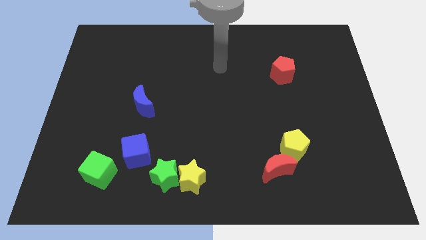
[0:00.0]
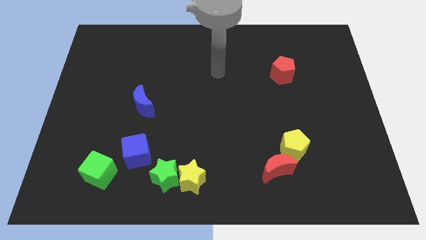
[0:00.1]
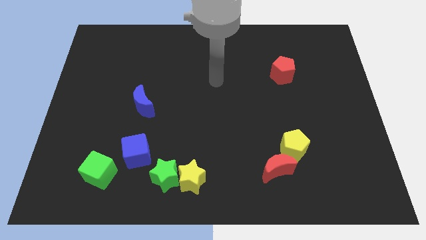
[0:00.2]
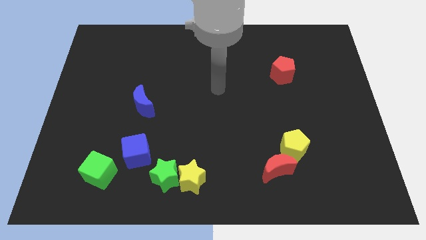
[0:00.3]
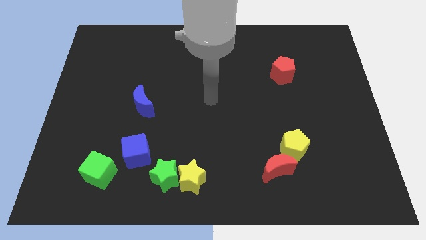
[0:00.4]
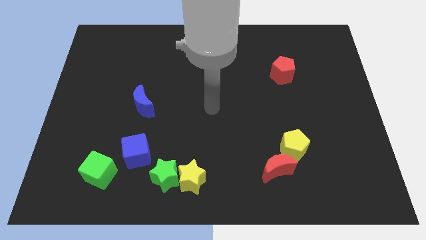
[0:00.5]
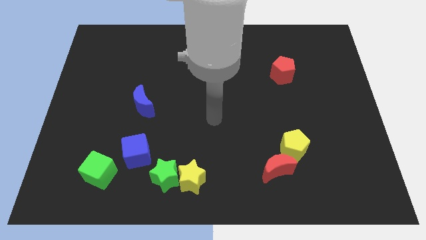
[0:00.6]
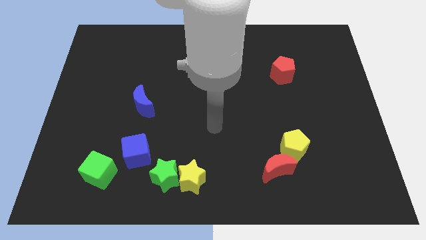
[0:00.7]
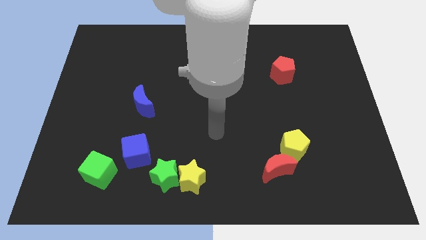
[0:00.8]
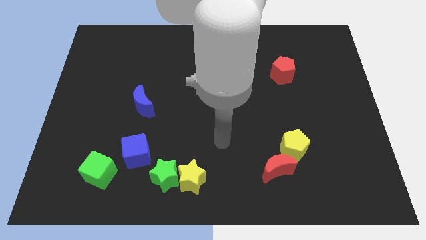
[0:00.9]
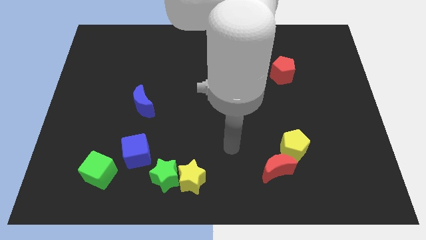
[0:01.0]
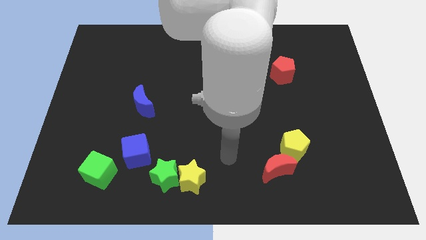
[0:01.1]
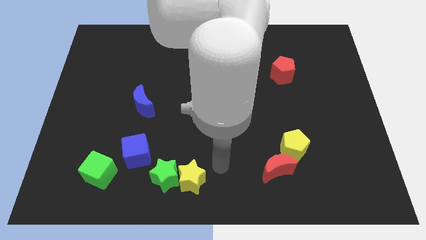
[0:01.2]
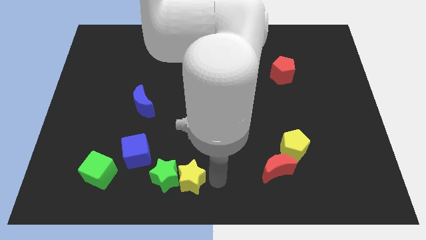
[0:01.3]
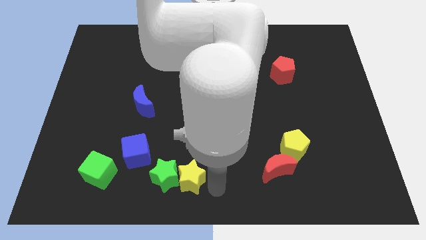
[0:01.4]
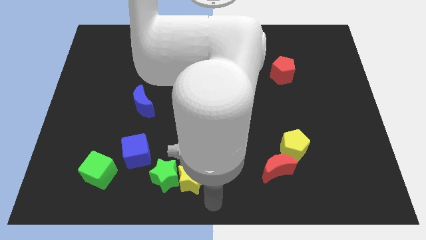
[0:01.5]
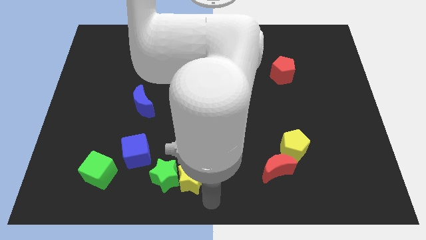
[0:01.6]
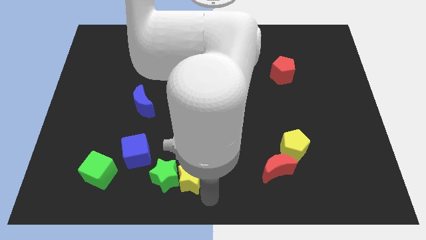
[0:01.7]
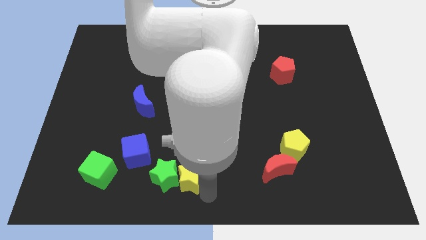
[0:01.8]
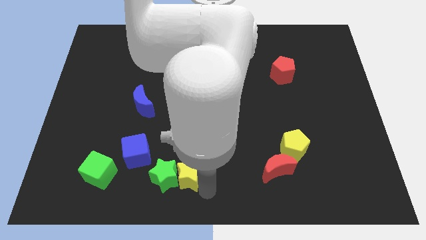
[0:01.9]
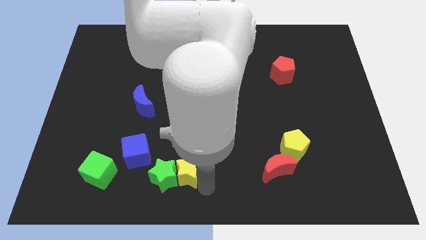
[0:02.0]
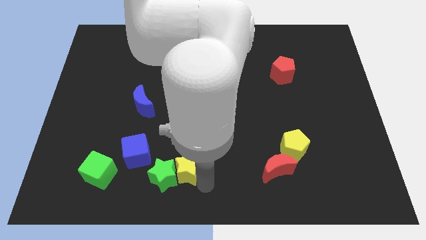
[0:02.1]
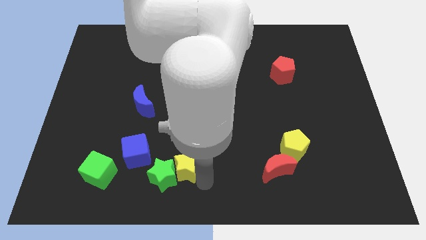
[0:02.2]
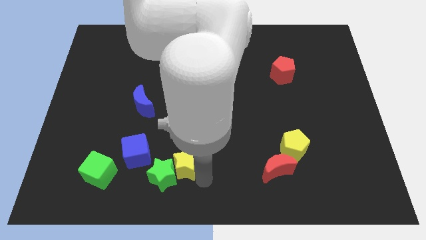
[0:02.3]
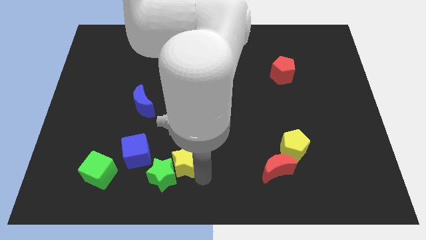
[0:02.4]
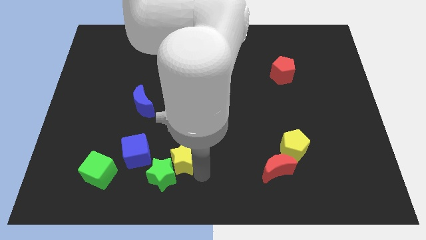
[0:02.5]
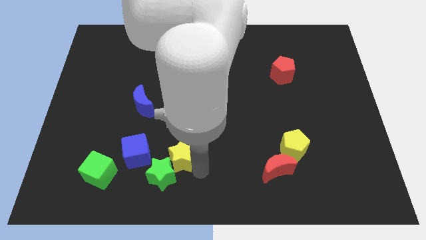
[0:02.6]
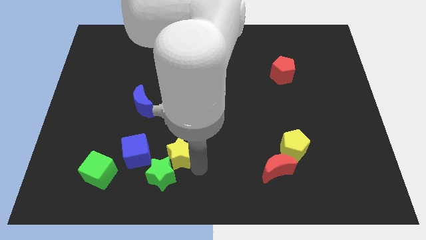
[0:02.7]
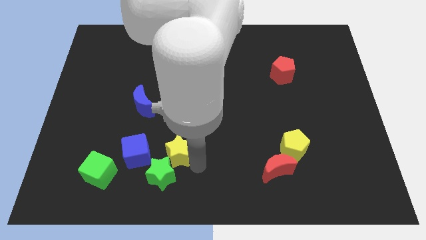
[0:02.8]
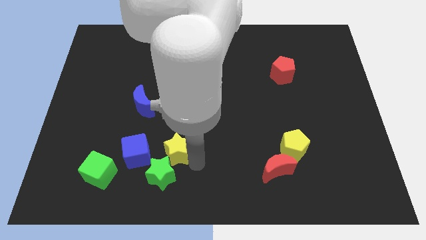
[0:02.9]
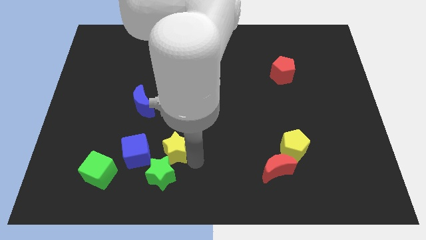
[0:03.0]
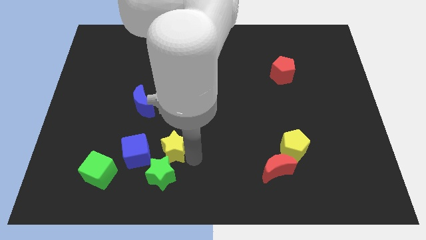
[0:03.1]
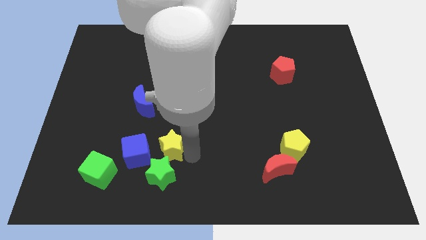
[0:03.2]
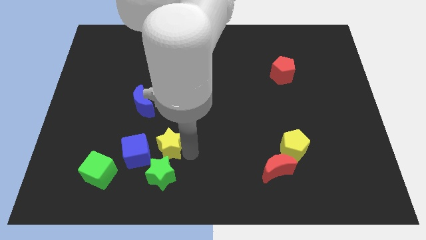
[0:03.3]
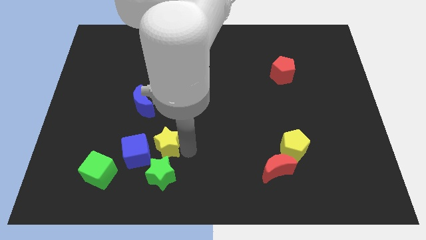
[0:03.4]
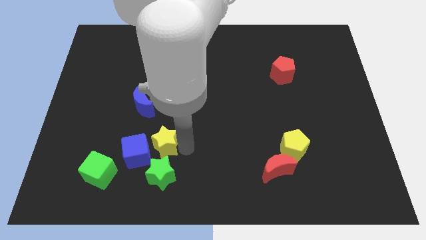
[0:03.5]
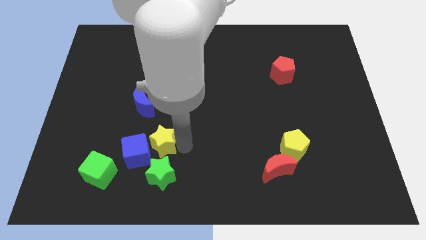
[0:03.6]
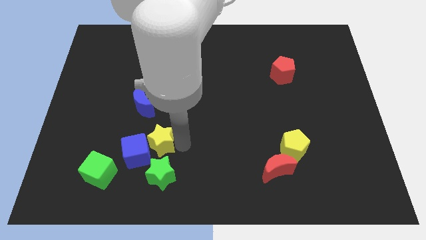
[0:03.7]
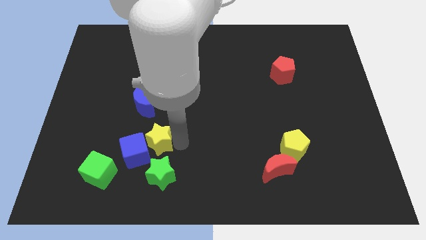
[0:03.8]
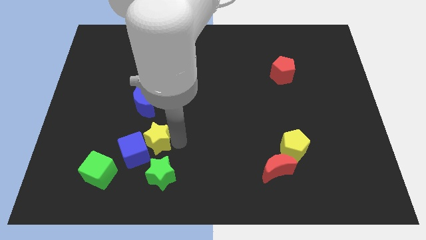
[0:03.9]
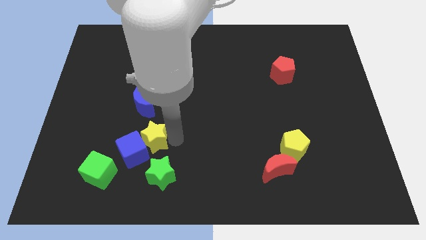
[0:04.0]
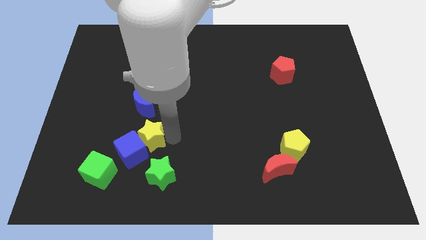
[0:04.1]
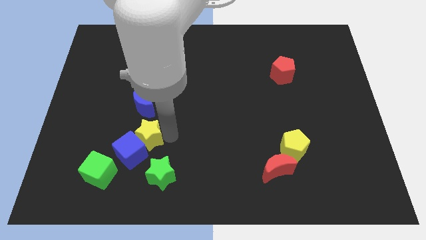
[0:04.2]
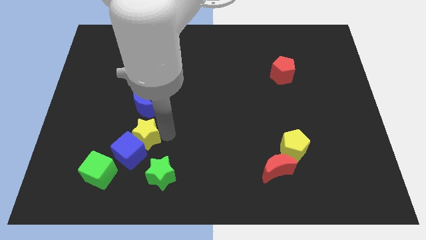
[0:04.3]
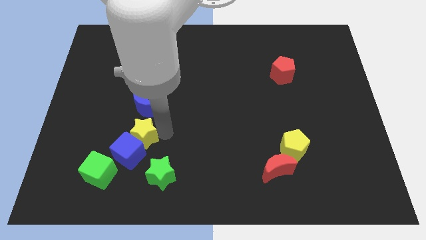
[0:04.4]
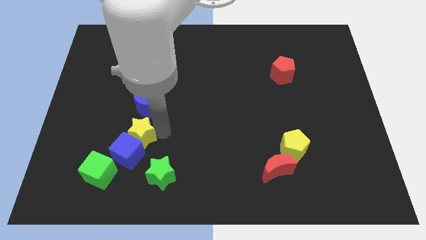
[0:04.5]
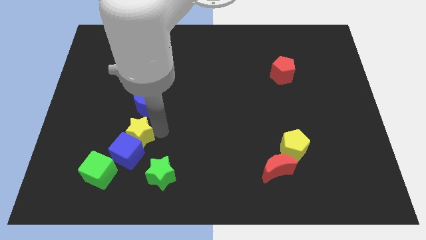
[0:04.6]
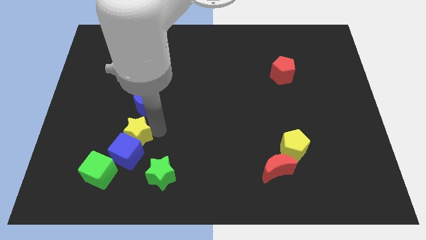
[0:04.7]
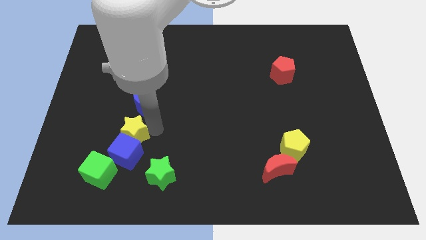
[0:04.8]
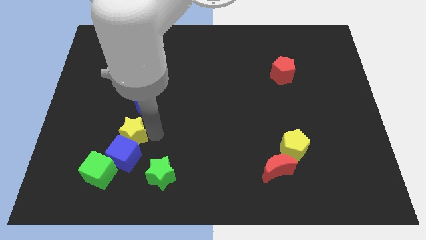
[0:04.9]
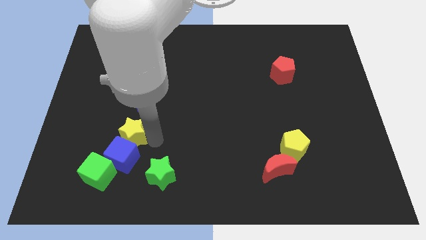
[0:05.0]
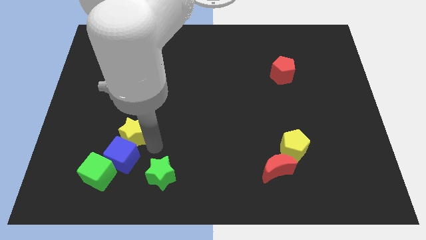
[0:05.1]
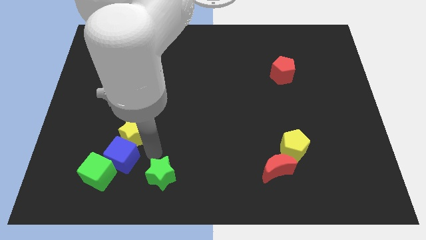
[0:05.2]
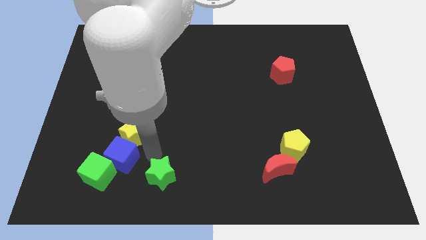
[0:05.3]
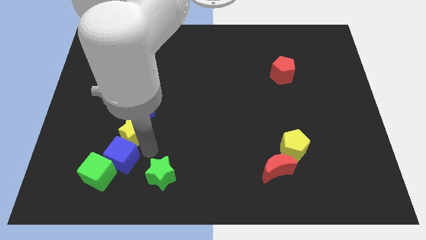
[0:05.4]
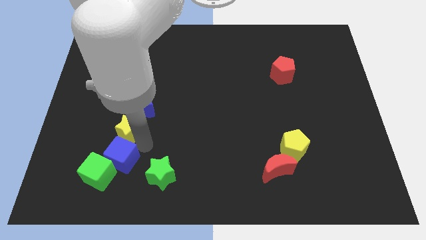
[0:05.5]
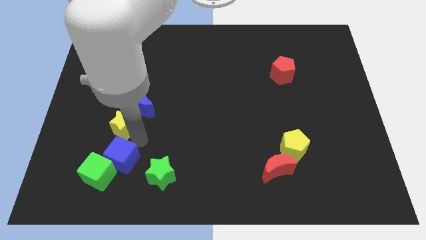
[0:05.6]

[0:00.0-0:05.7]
slide the yellow star diagonally up and left

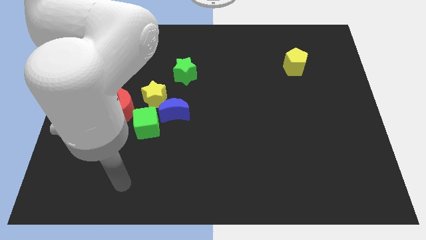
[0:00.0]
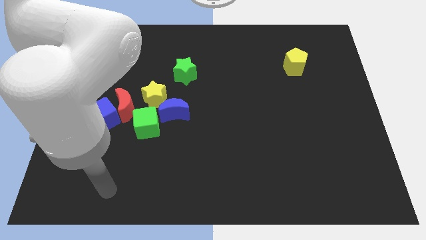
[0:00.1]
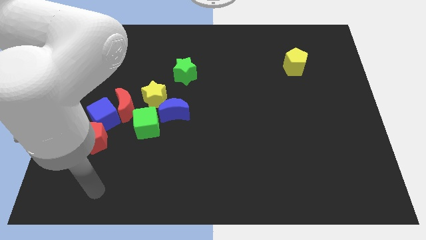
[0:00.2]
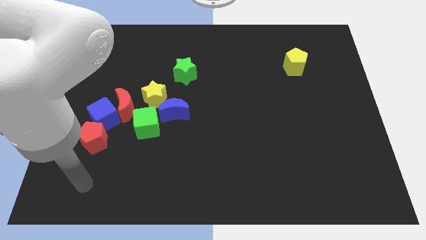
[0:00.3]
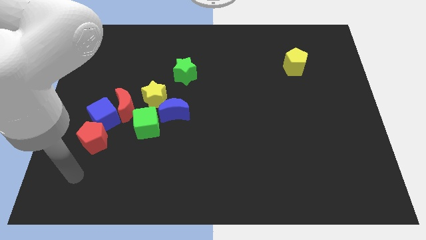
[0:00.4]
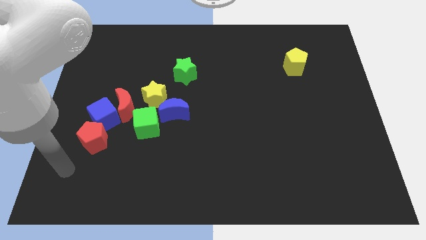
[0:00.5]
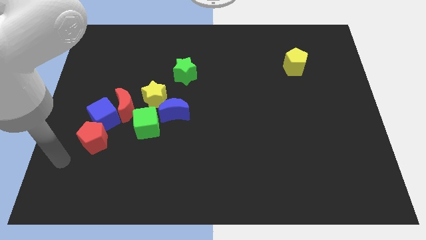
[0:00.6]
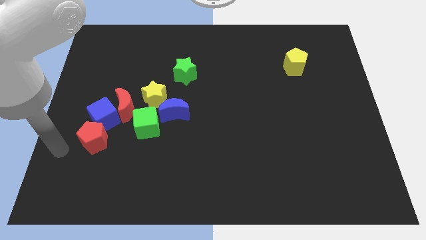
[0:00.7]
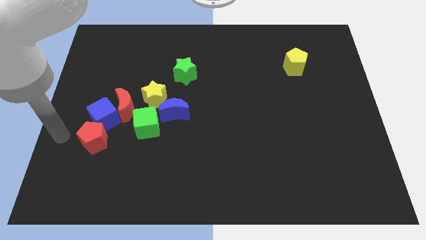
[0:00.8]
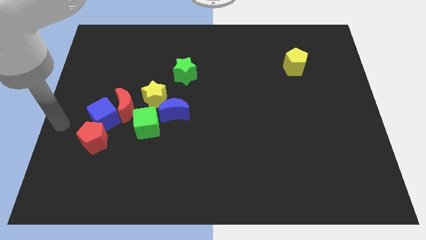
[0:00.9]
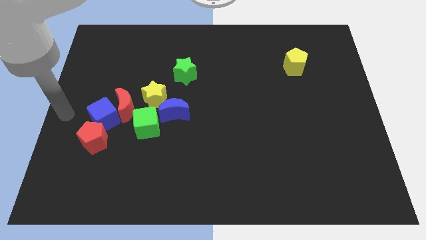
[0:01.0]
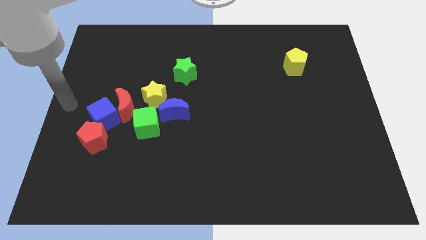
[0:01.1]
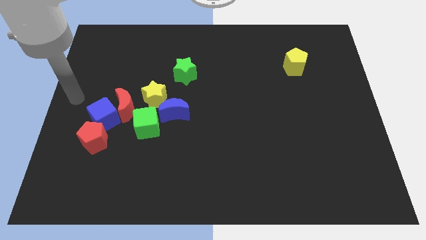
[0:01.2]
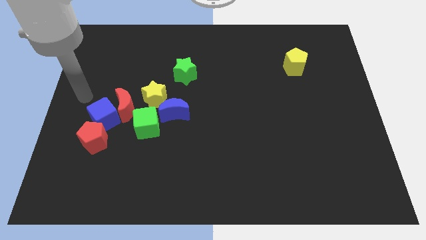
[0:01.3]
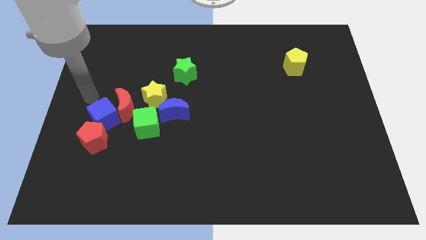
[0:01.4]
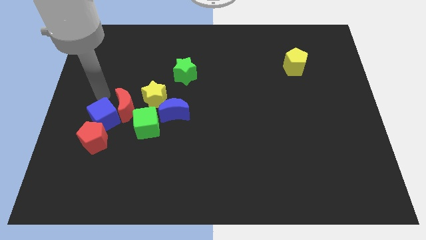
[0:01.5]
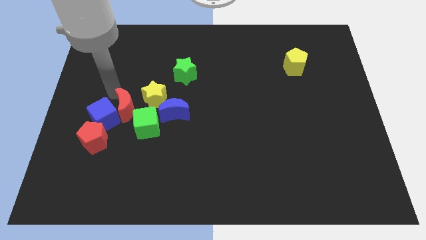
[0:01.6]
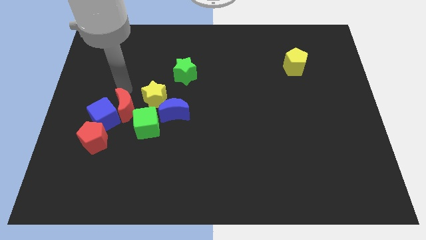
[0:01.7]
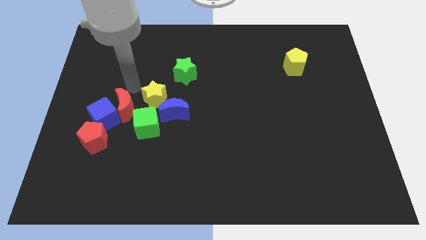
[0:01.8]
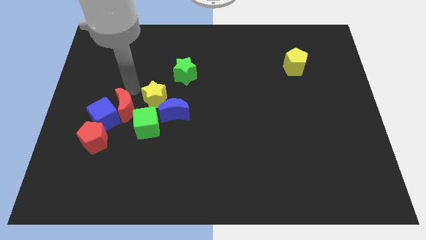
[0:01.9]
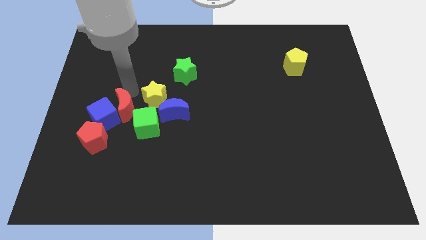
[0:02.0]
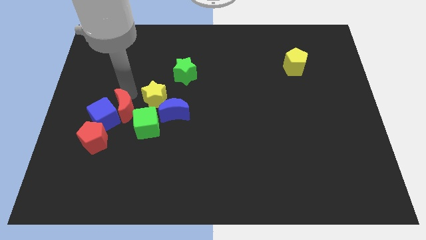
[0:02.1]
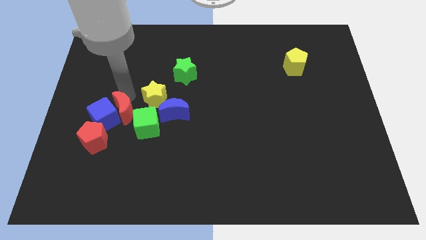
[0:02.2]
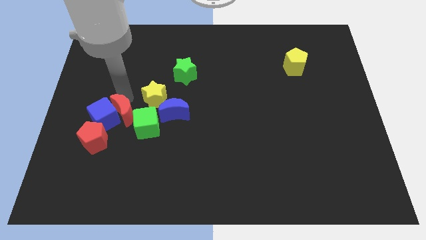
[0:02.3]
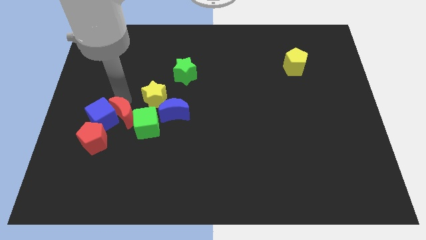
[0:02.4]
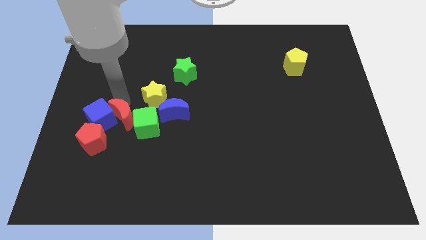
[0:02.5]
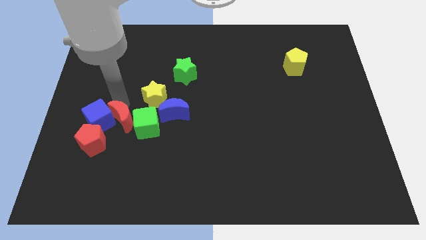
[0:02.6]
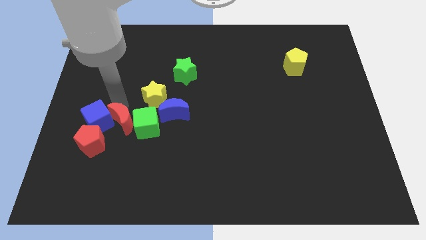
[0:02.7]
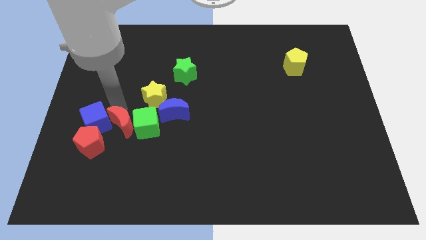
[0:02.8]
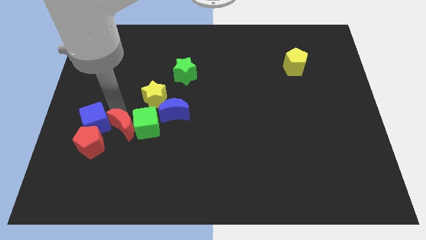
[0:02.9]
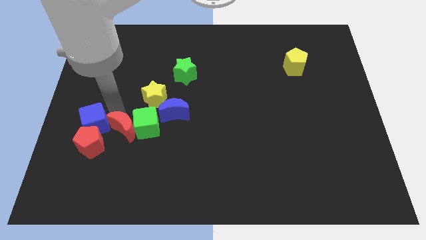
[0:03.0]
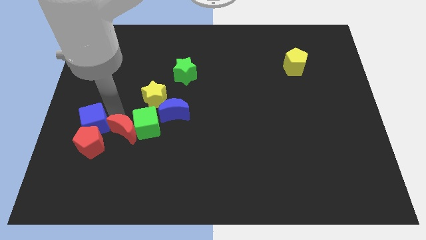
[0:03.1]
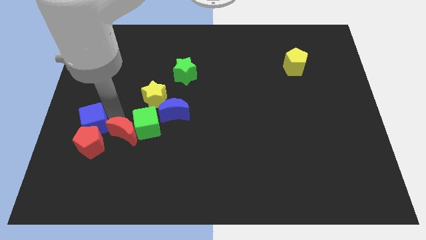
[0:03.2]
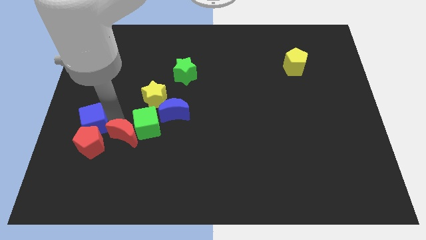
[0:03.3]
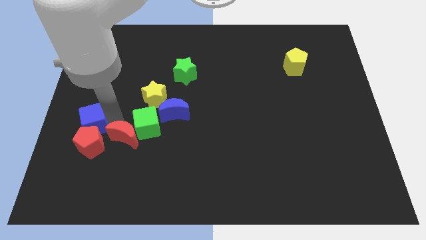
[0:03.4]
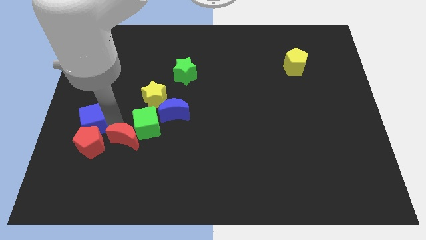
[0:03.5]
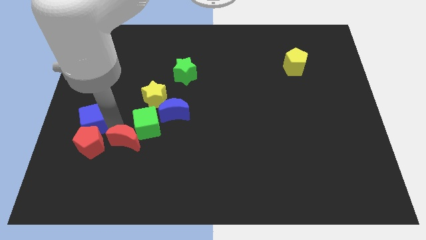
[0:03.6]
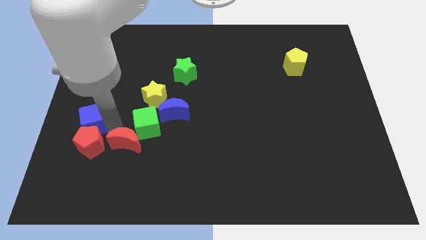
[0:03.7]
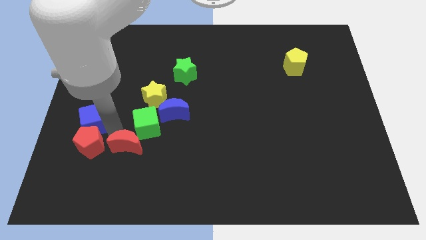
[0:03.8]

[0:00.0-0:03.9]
slightly push the red moon downwards and to the right
